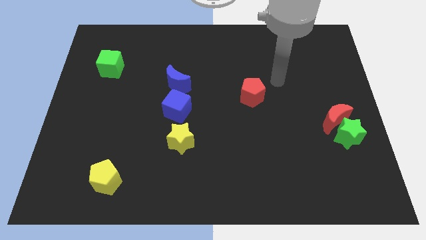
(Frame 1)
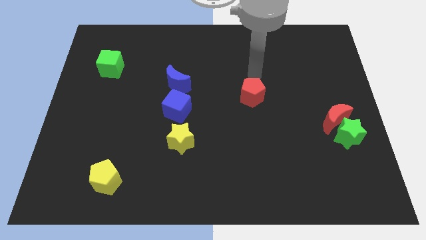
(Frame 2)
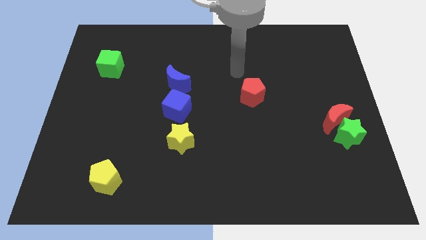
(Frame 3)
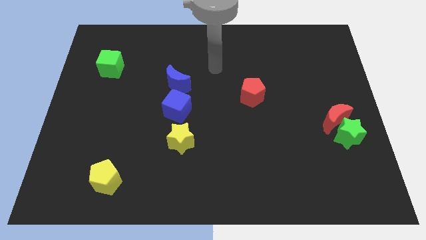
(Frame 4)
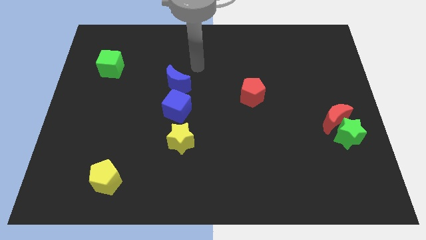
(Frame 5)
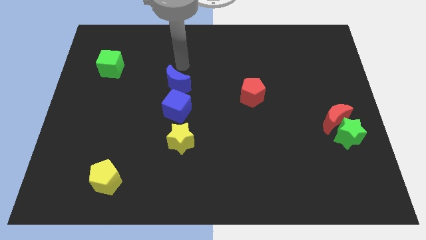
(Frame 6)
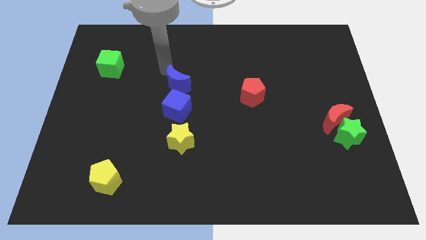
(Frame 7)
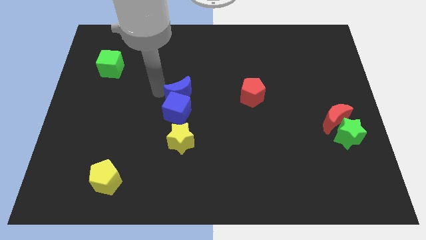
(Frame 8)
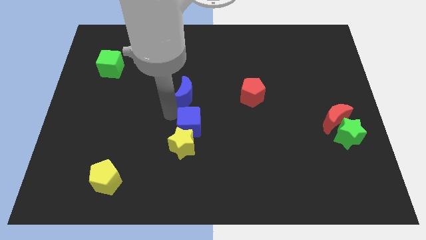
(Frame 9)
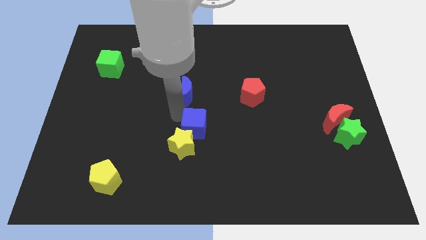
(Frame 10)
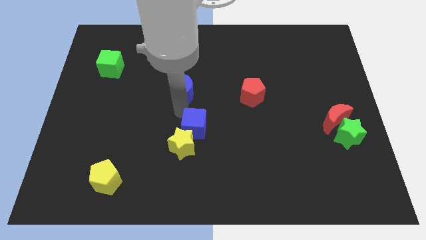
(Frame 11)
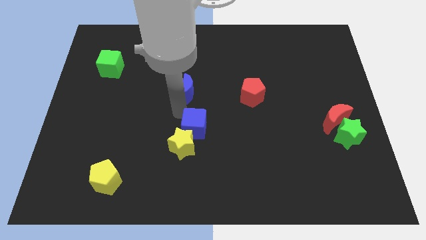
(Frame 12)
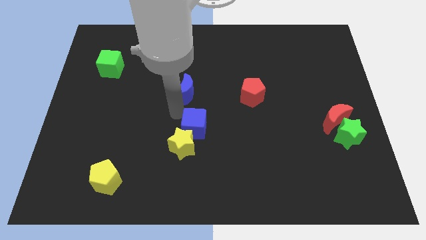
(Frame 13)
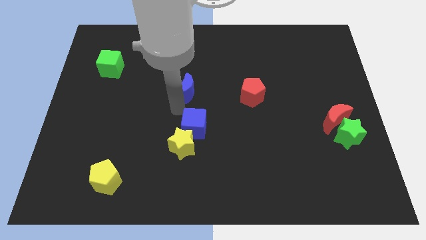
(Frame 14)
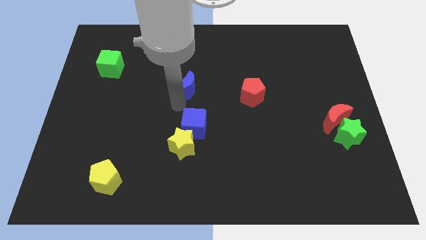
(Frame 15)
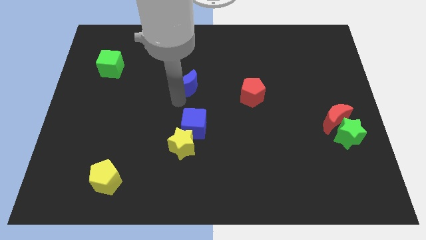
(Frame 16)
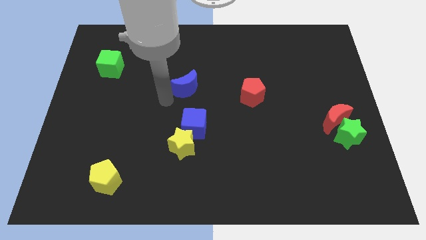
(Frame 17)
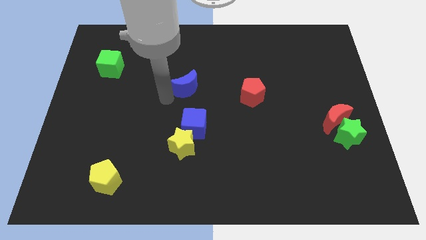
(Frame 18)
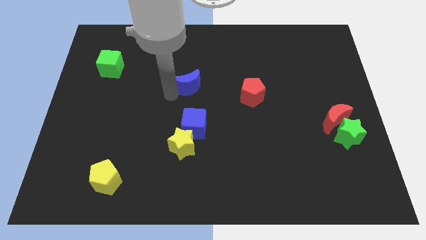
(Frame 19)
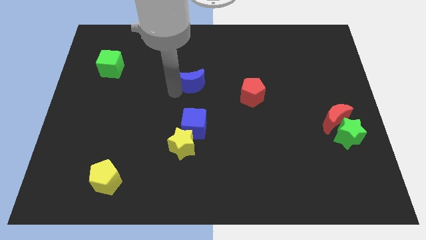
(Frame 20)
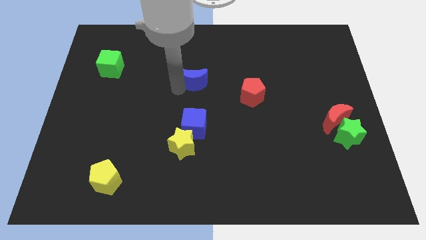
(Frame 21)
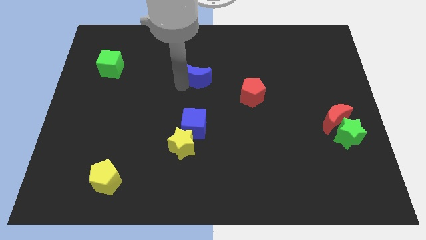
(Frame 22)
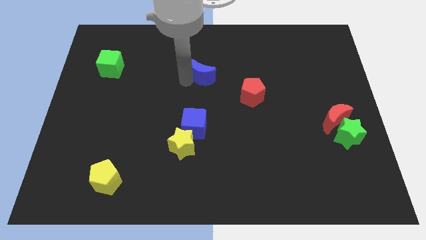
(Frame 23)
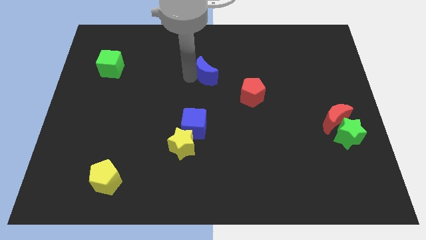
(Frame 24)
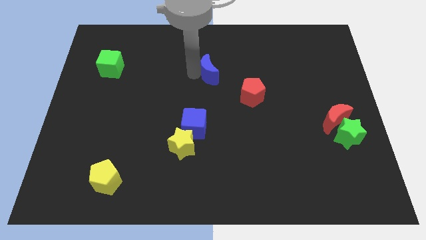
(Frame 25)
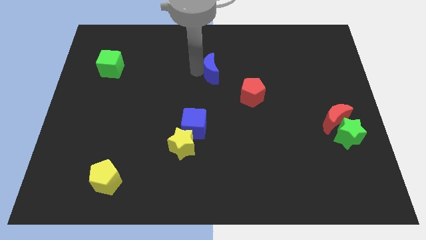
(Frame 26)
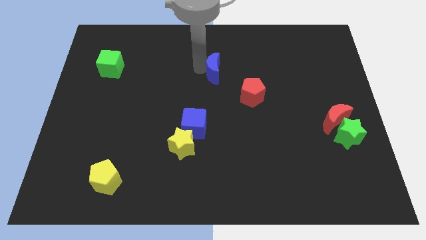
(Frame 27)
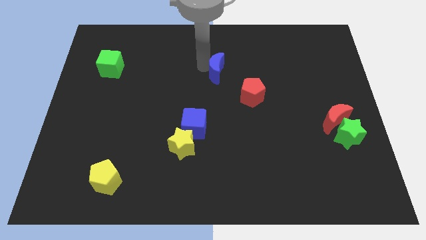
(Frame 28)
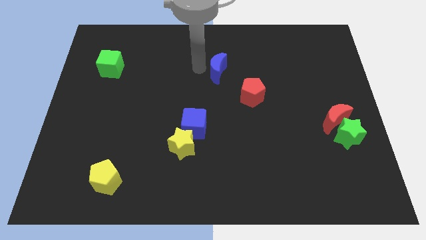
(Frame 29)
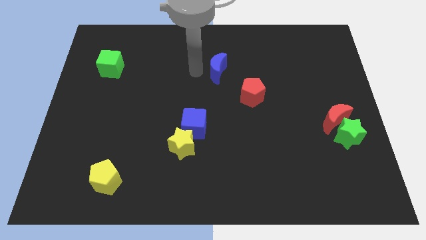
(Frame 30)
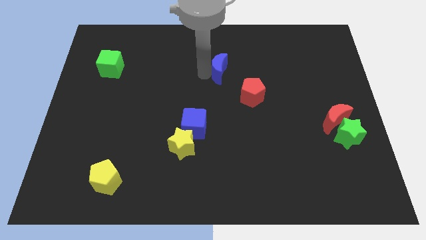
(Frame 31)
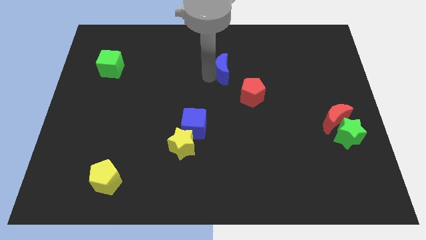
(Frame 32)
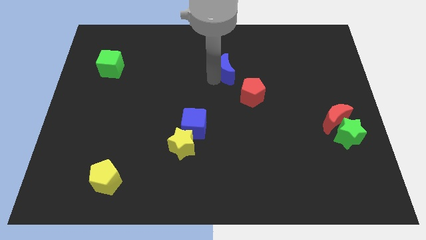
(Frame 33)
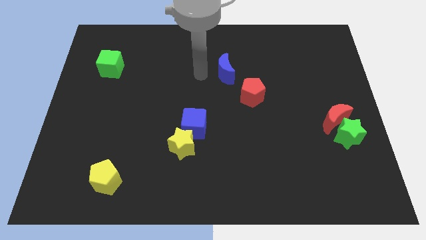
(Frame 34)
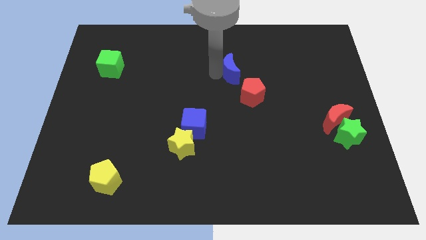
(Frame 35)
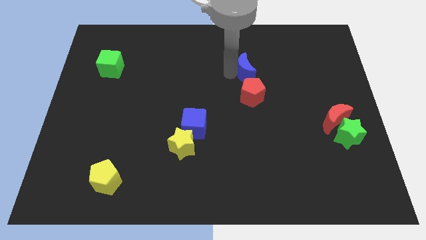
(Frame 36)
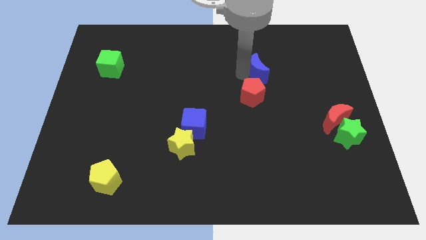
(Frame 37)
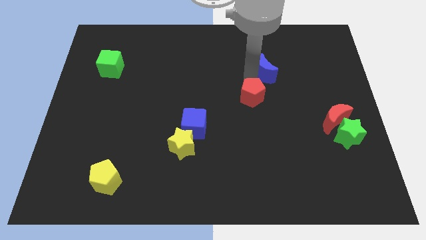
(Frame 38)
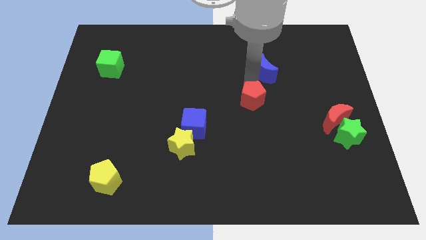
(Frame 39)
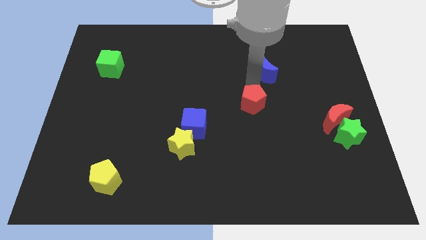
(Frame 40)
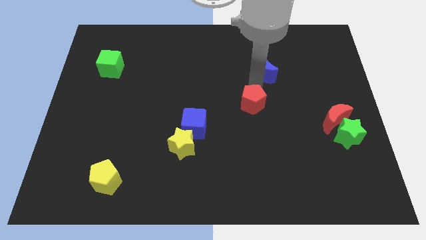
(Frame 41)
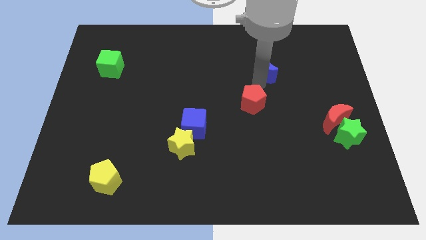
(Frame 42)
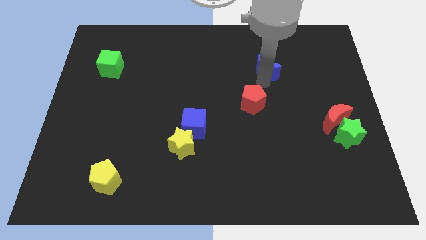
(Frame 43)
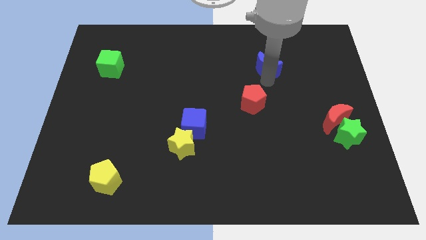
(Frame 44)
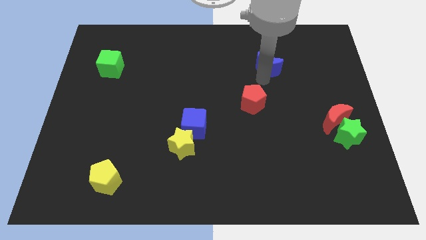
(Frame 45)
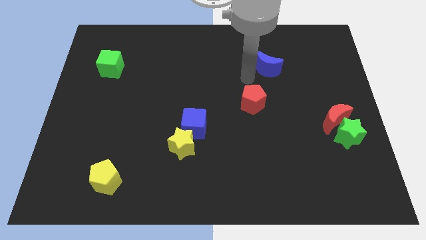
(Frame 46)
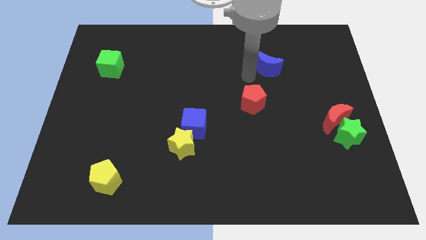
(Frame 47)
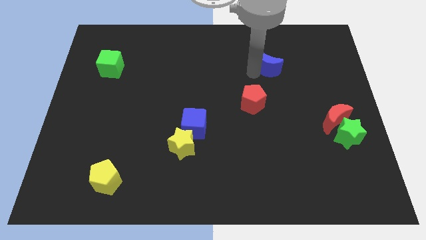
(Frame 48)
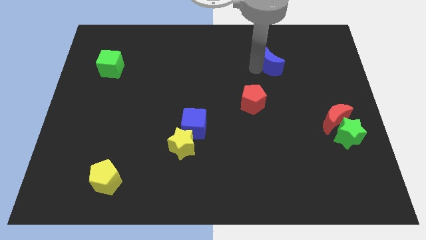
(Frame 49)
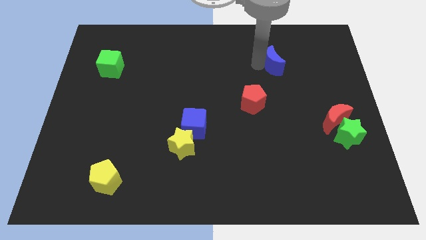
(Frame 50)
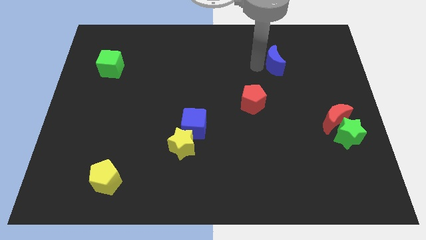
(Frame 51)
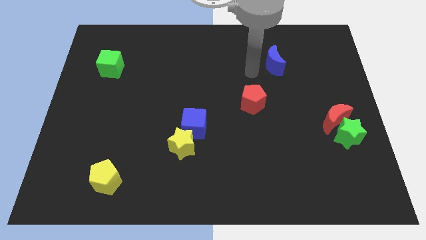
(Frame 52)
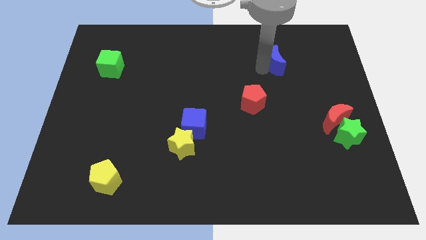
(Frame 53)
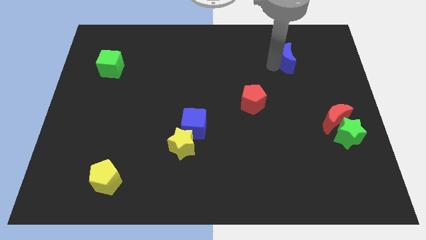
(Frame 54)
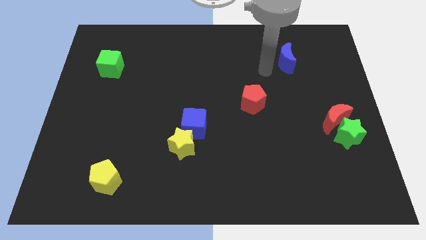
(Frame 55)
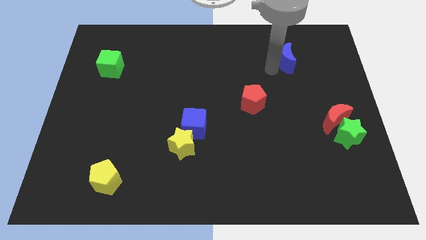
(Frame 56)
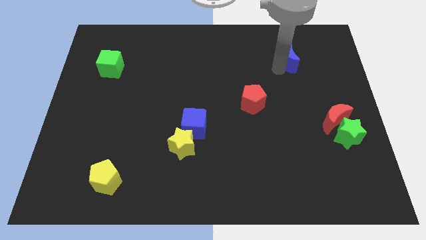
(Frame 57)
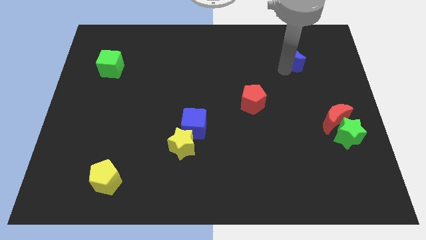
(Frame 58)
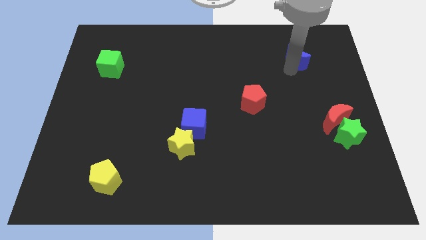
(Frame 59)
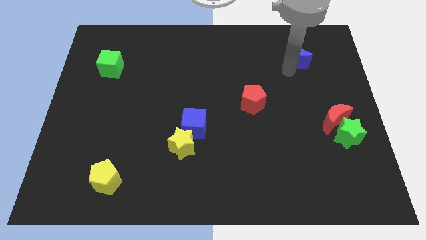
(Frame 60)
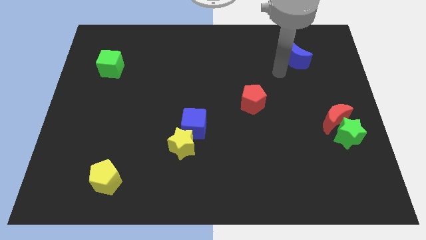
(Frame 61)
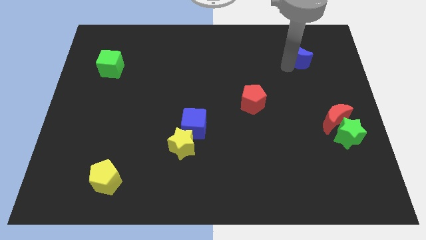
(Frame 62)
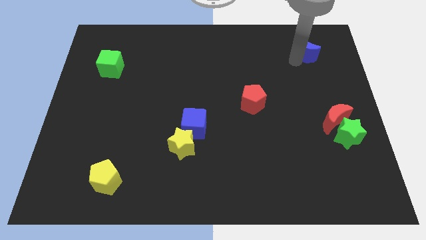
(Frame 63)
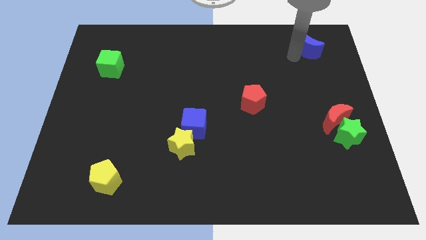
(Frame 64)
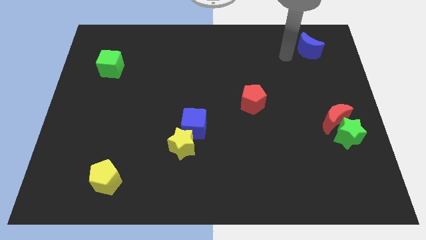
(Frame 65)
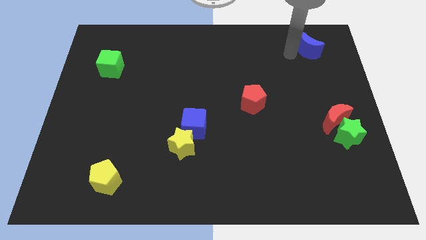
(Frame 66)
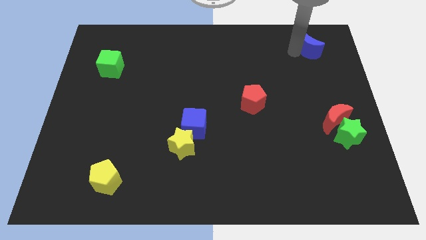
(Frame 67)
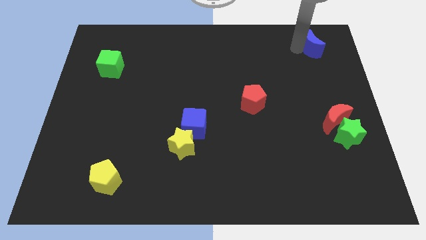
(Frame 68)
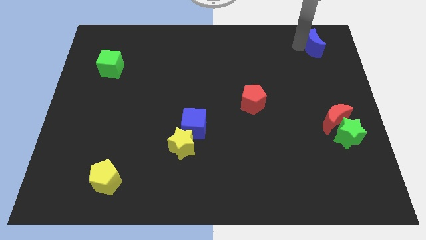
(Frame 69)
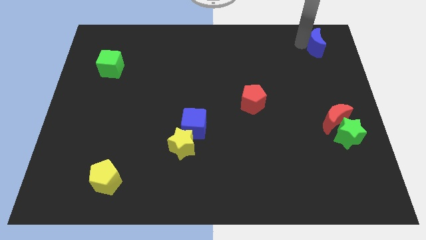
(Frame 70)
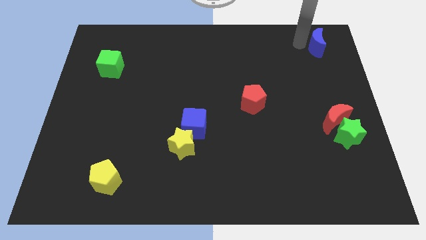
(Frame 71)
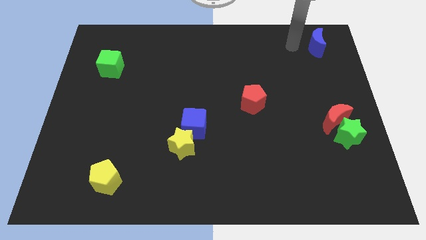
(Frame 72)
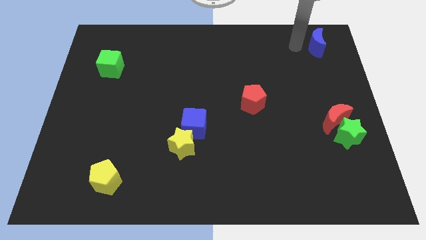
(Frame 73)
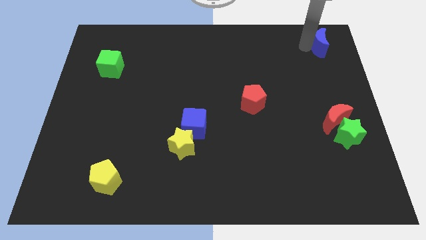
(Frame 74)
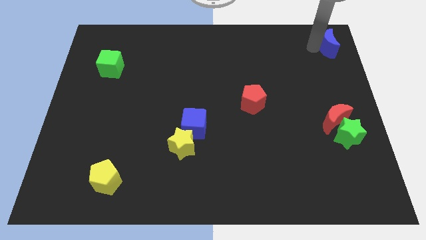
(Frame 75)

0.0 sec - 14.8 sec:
push the blue moon to the top right of the board
